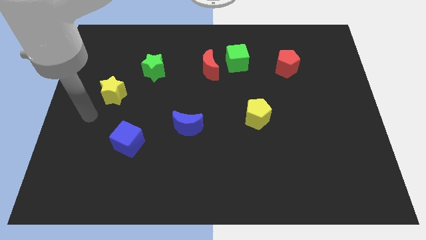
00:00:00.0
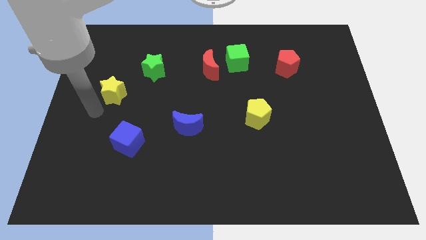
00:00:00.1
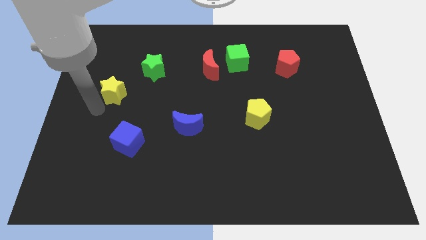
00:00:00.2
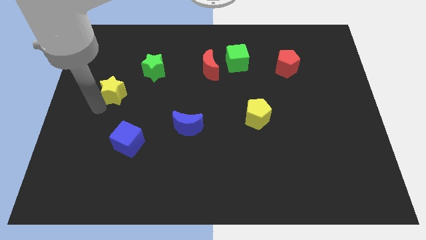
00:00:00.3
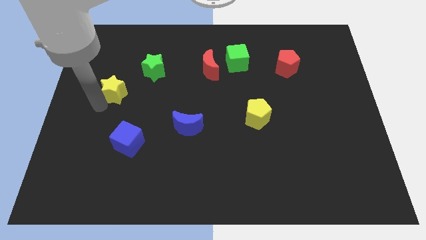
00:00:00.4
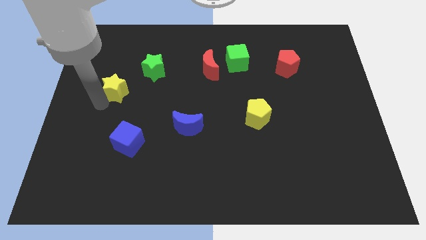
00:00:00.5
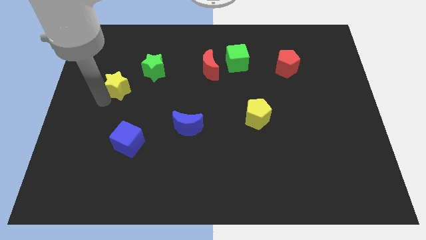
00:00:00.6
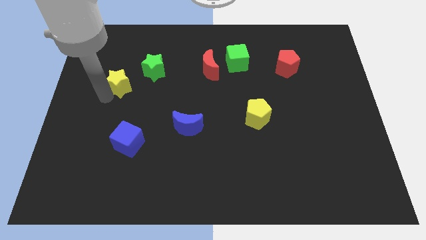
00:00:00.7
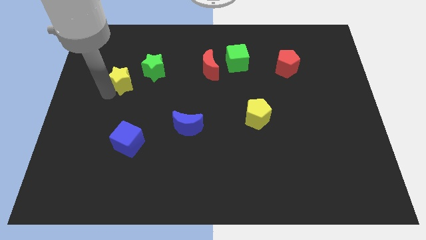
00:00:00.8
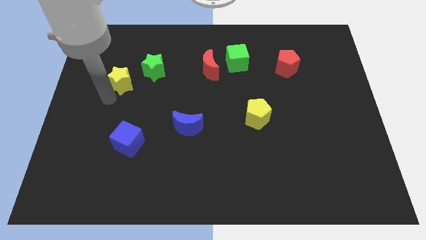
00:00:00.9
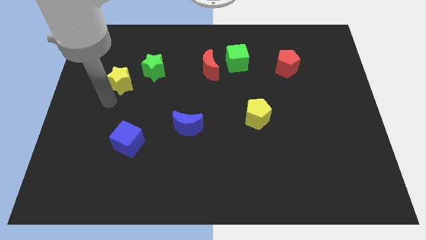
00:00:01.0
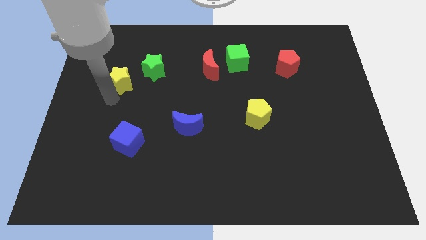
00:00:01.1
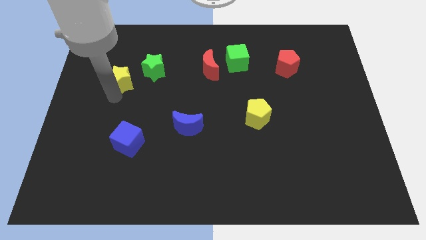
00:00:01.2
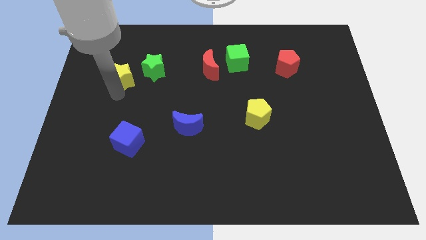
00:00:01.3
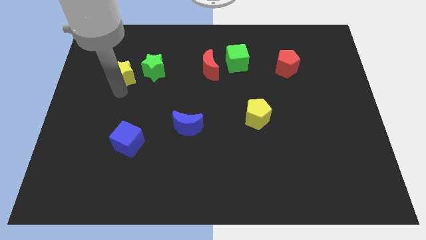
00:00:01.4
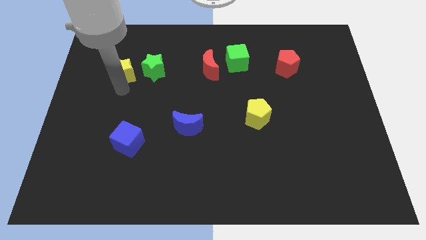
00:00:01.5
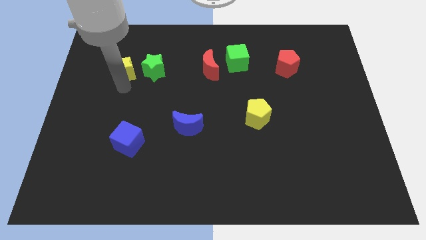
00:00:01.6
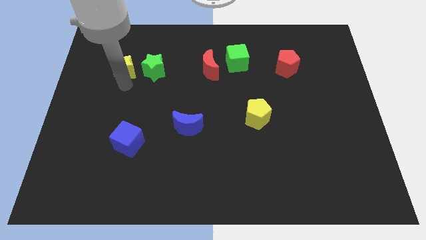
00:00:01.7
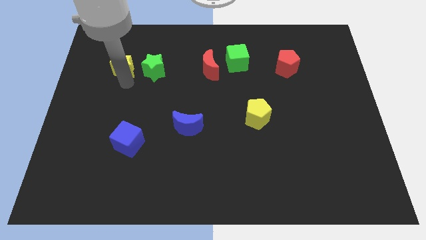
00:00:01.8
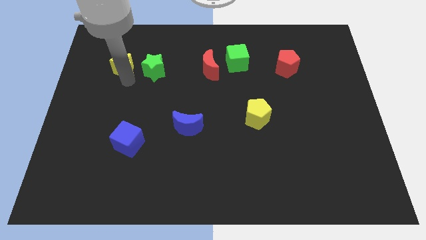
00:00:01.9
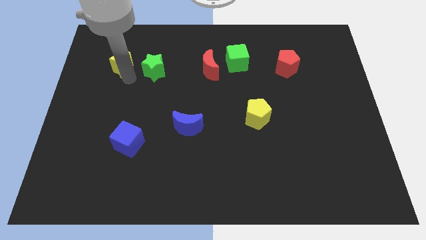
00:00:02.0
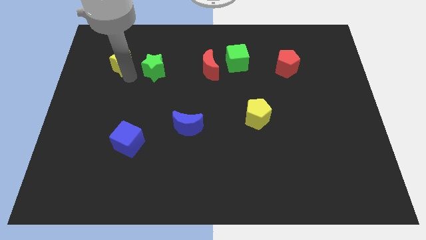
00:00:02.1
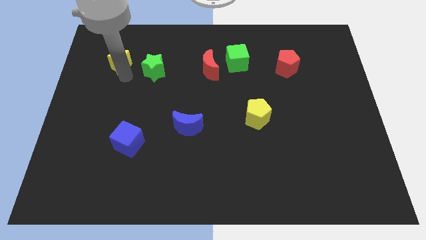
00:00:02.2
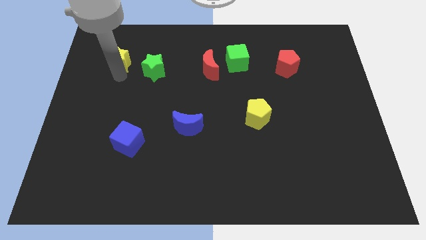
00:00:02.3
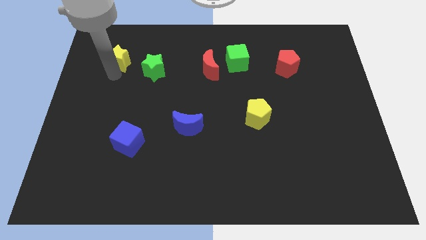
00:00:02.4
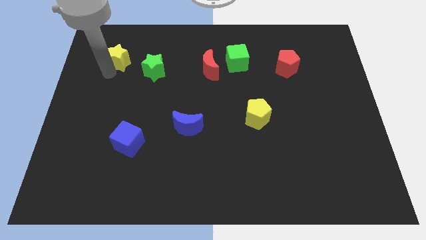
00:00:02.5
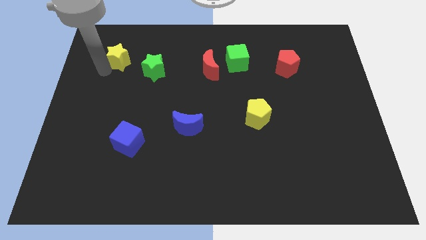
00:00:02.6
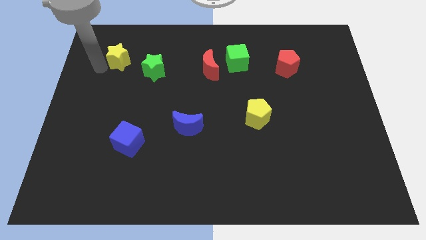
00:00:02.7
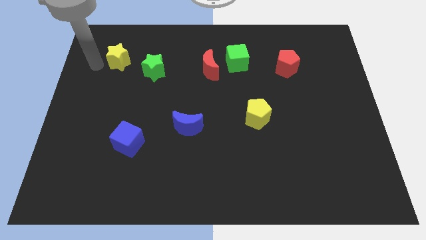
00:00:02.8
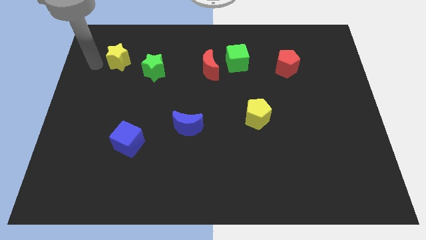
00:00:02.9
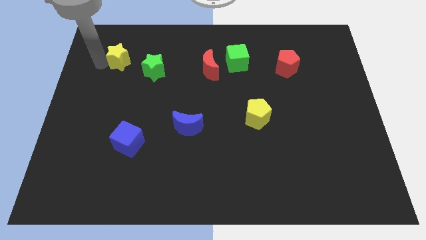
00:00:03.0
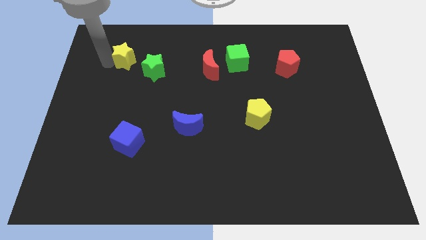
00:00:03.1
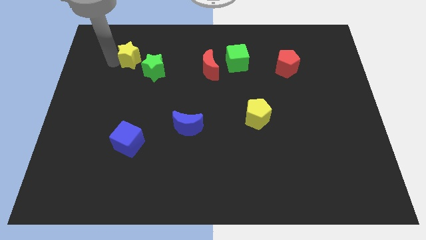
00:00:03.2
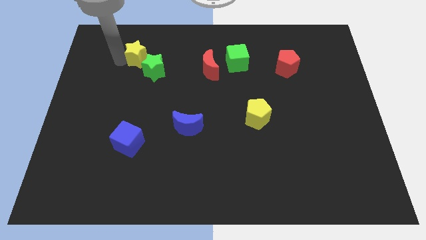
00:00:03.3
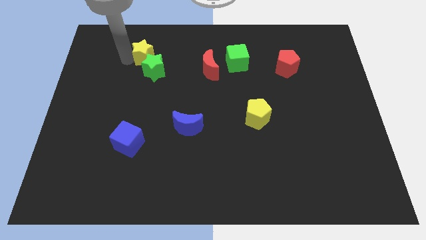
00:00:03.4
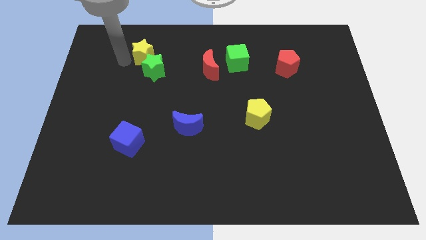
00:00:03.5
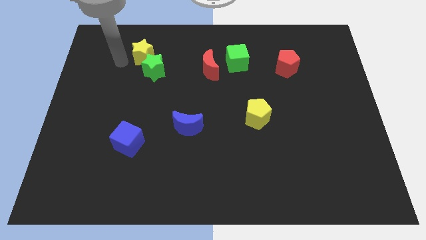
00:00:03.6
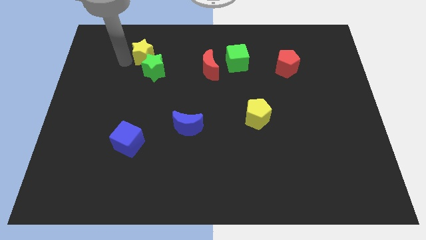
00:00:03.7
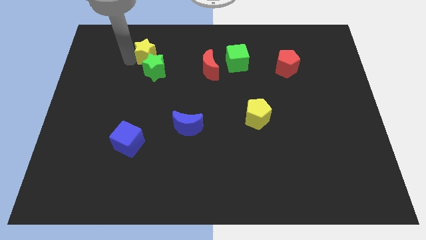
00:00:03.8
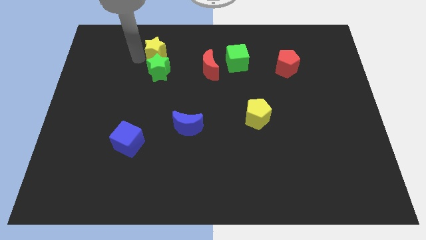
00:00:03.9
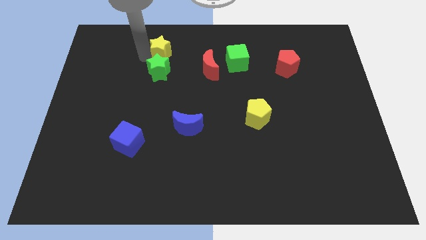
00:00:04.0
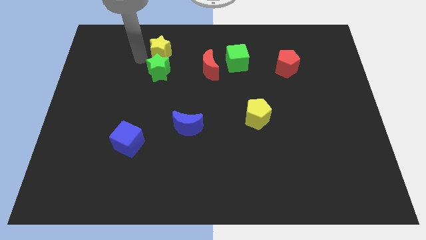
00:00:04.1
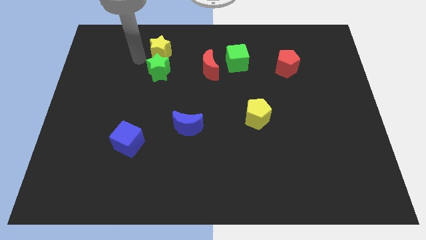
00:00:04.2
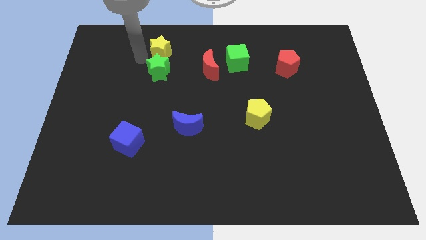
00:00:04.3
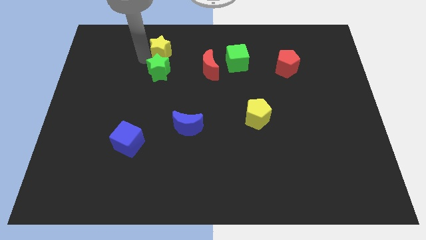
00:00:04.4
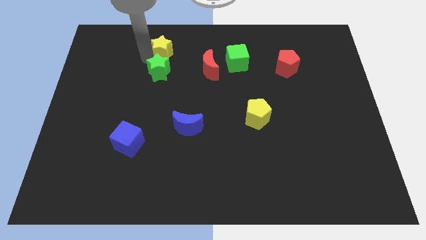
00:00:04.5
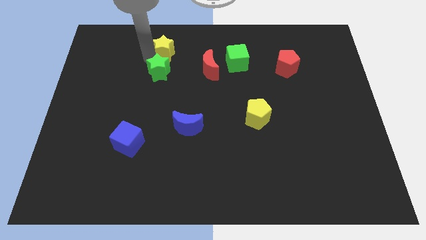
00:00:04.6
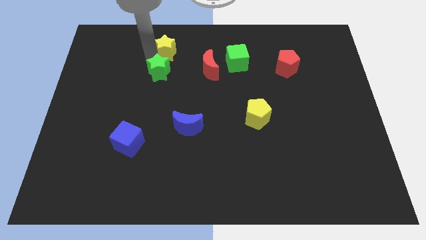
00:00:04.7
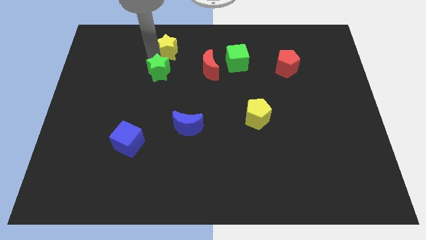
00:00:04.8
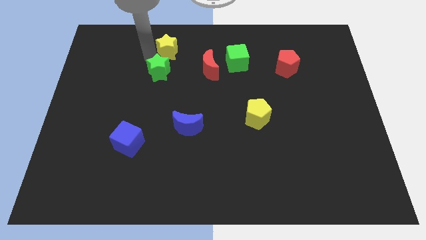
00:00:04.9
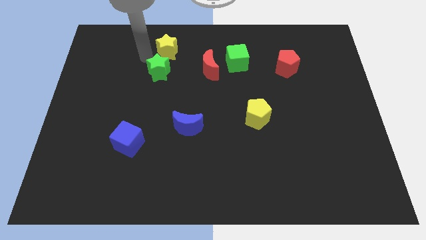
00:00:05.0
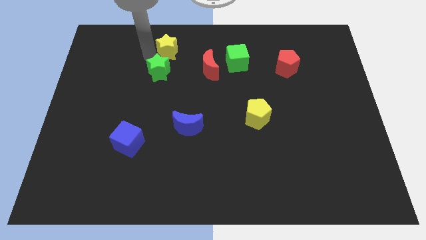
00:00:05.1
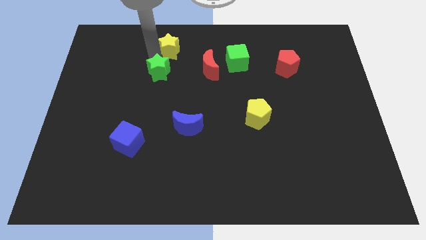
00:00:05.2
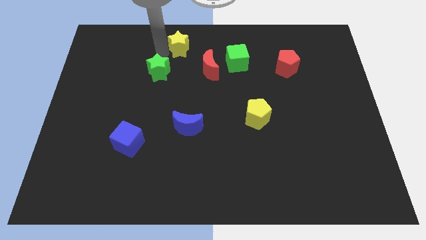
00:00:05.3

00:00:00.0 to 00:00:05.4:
push the yellow star to the top side

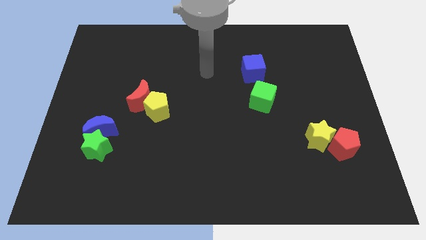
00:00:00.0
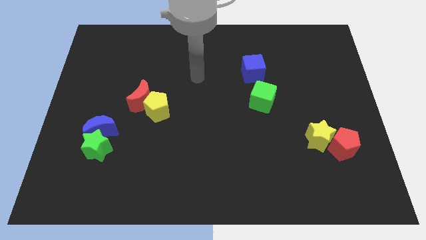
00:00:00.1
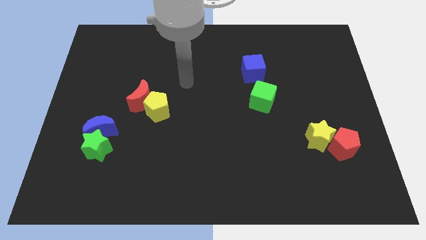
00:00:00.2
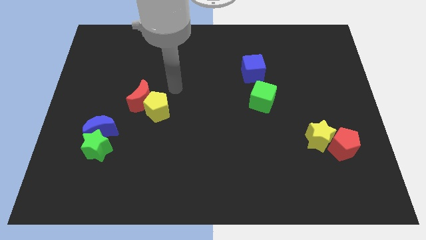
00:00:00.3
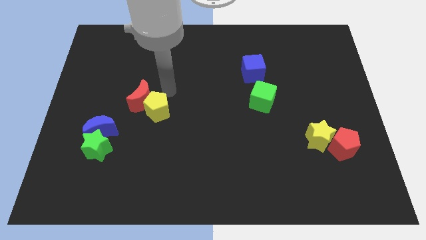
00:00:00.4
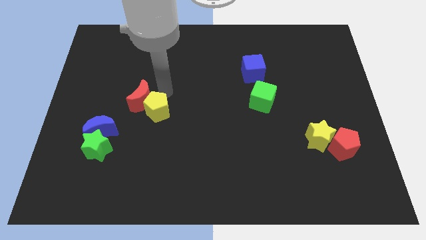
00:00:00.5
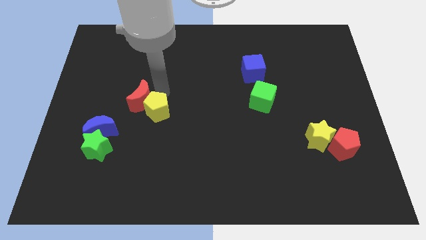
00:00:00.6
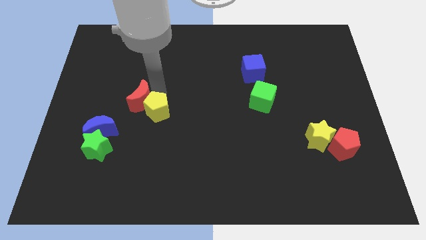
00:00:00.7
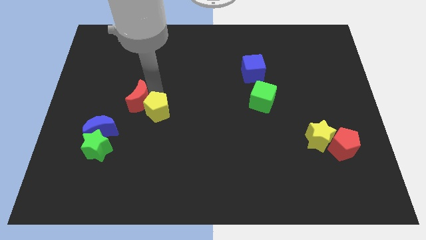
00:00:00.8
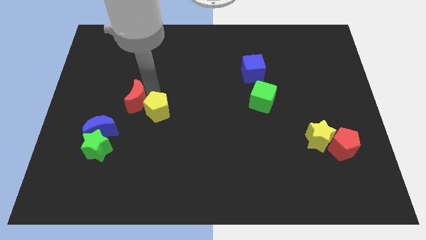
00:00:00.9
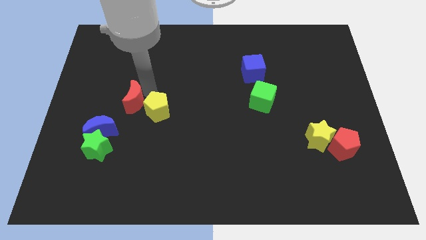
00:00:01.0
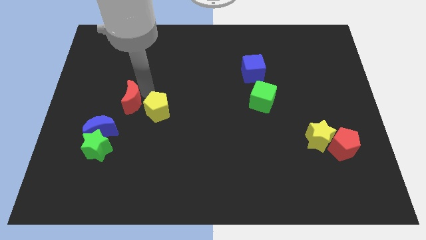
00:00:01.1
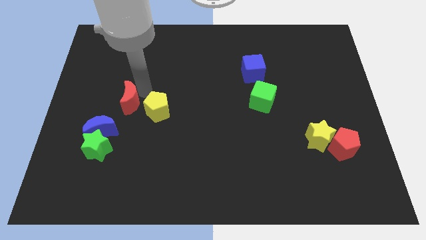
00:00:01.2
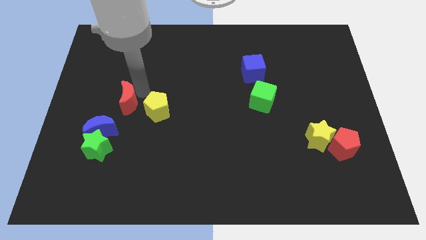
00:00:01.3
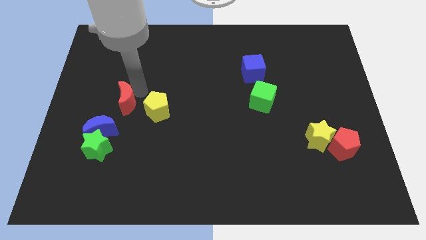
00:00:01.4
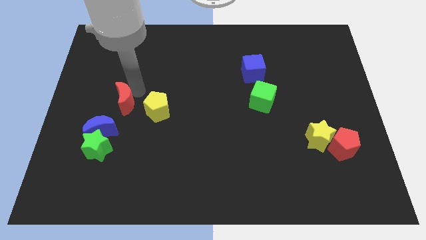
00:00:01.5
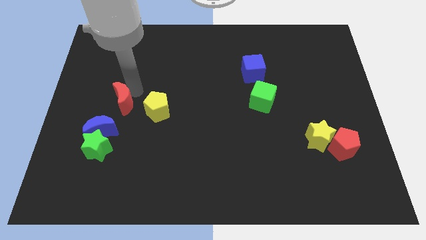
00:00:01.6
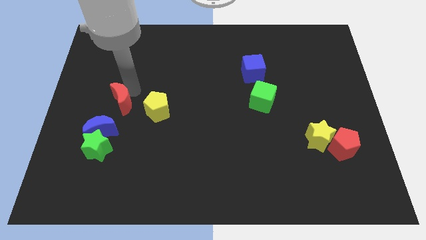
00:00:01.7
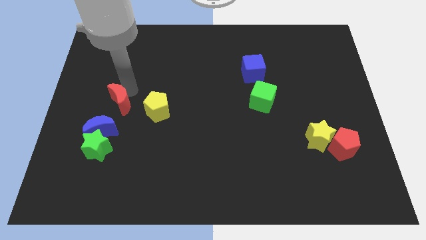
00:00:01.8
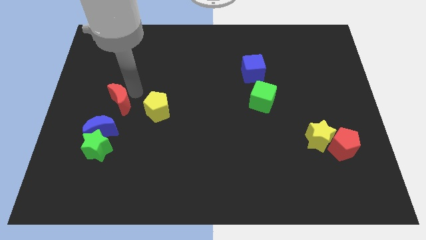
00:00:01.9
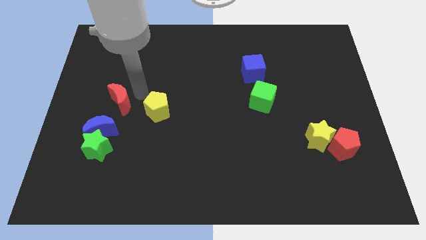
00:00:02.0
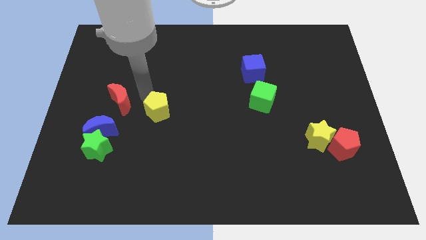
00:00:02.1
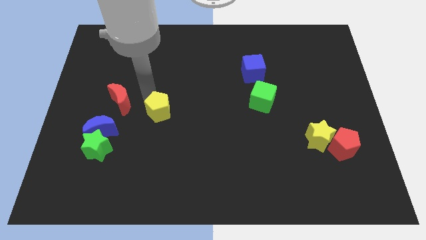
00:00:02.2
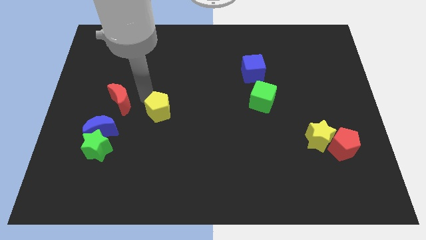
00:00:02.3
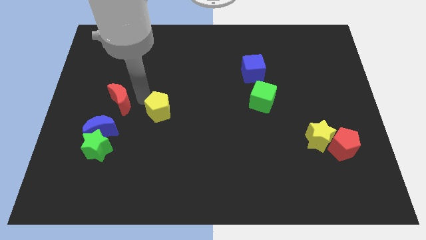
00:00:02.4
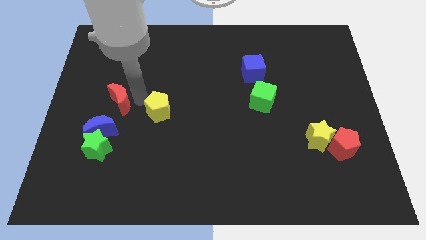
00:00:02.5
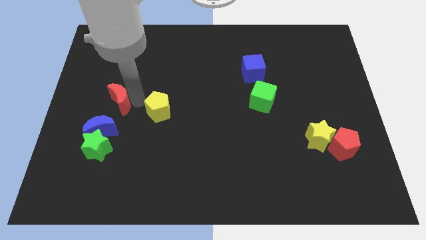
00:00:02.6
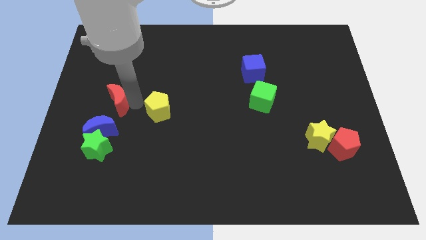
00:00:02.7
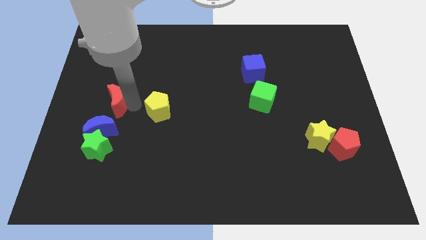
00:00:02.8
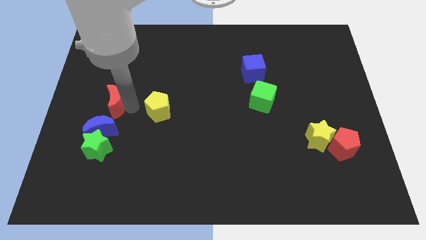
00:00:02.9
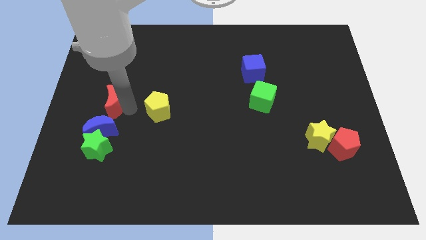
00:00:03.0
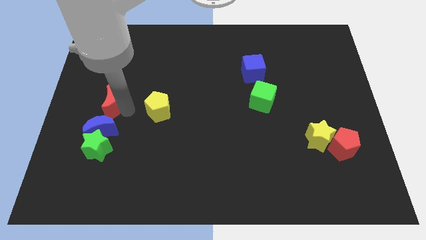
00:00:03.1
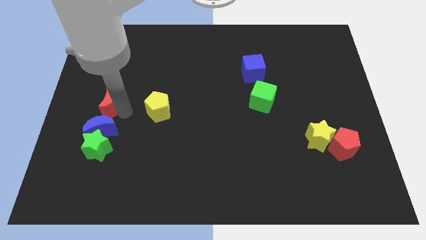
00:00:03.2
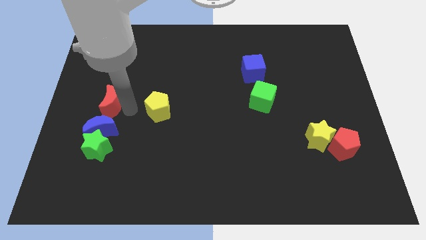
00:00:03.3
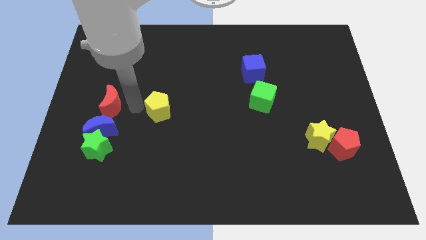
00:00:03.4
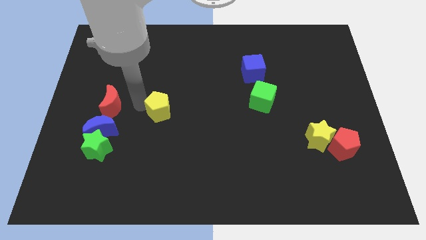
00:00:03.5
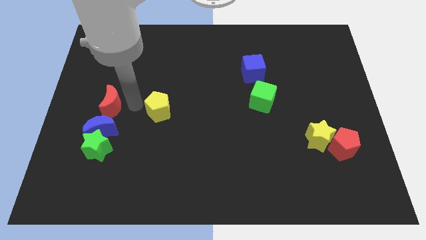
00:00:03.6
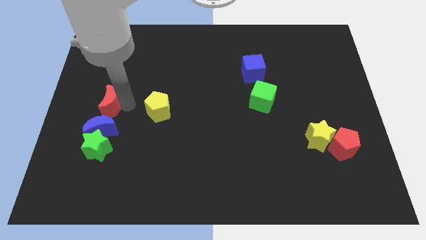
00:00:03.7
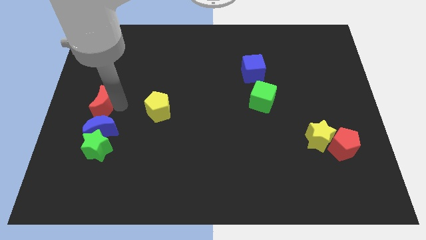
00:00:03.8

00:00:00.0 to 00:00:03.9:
push the red moon to the left side of the board
